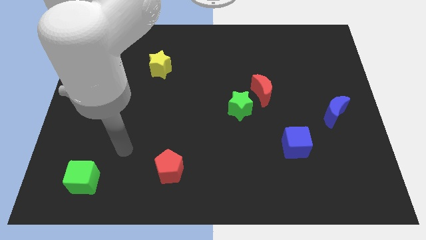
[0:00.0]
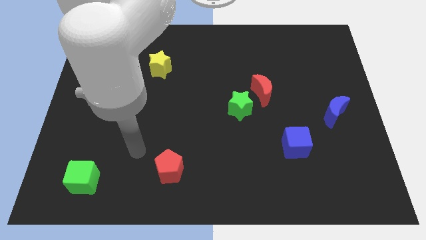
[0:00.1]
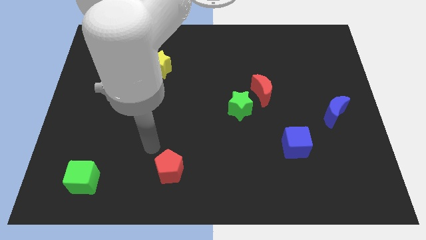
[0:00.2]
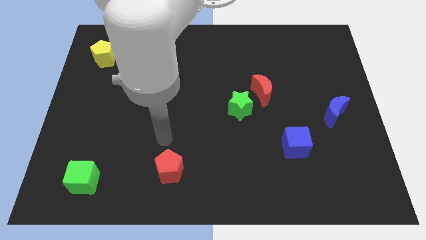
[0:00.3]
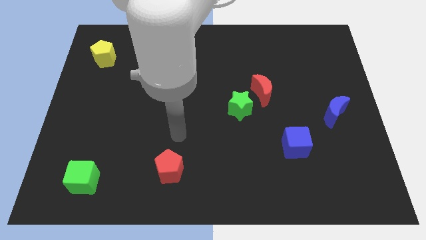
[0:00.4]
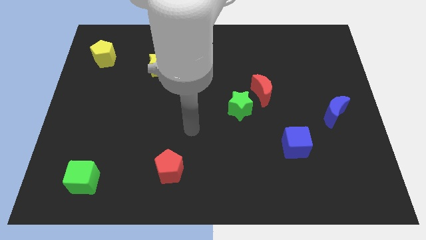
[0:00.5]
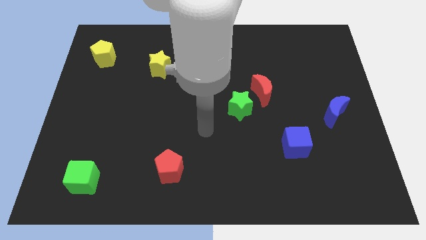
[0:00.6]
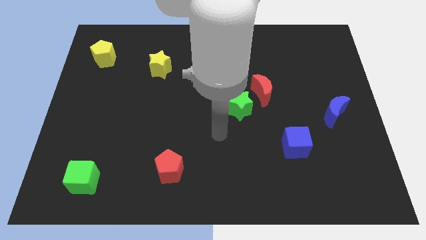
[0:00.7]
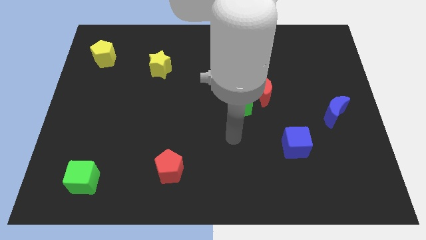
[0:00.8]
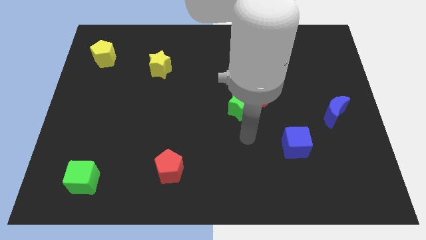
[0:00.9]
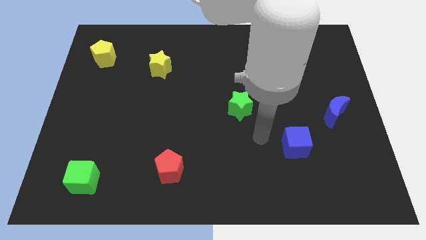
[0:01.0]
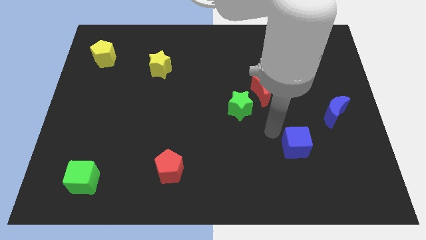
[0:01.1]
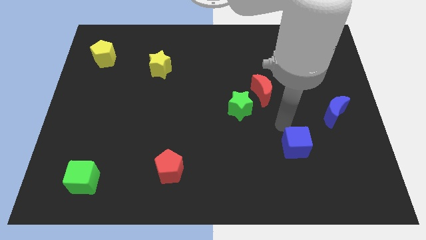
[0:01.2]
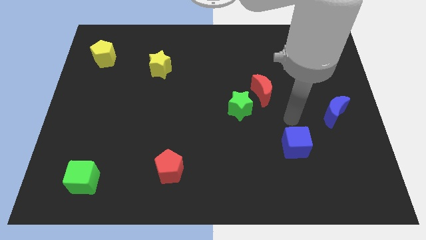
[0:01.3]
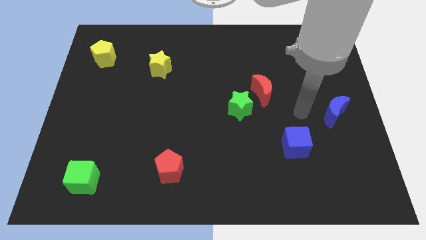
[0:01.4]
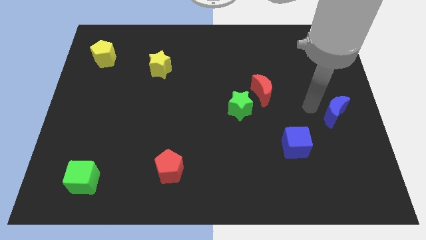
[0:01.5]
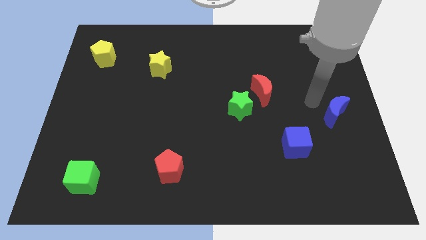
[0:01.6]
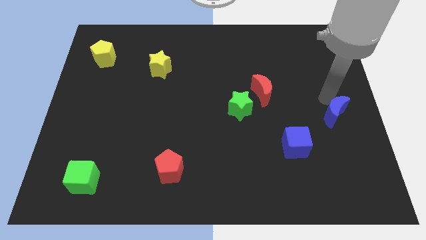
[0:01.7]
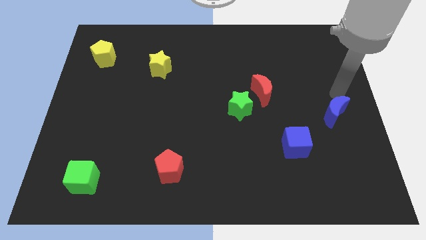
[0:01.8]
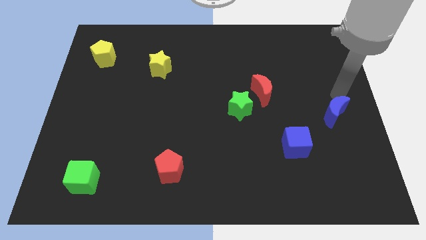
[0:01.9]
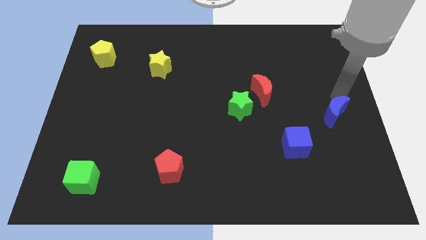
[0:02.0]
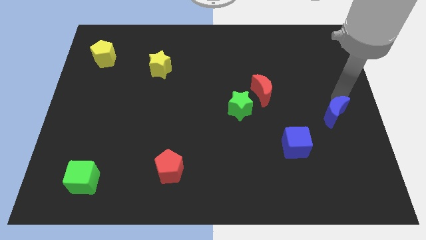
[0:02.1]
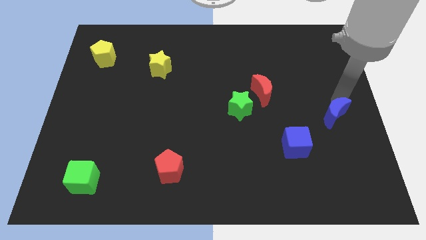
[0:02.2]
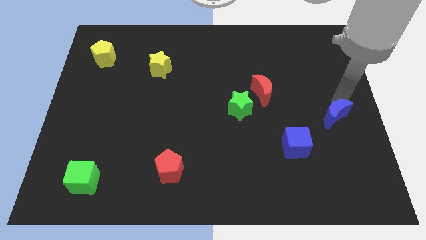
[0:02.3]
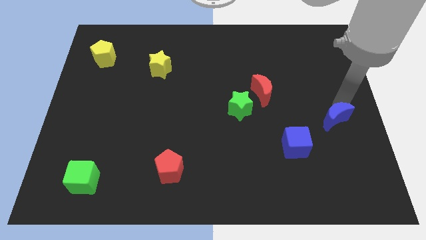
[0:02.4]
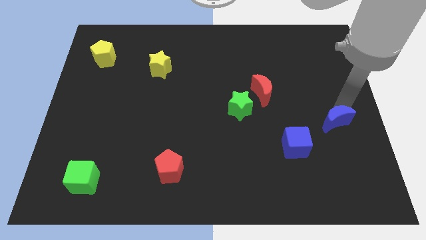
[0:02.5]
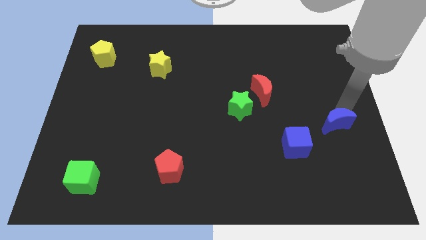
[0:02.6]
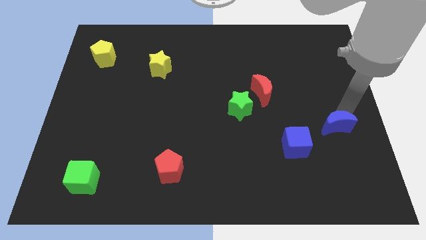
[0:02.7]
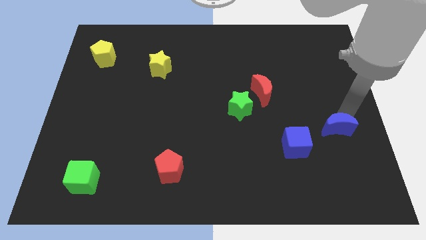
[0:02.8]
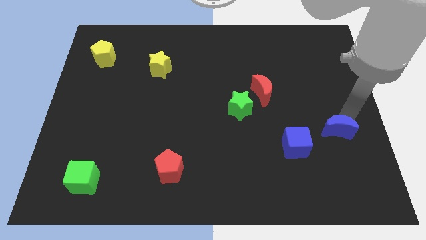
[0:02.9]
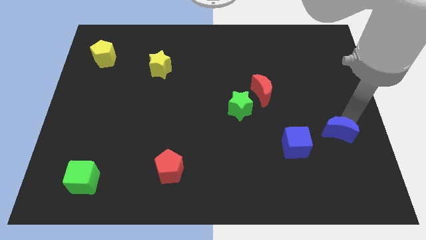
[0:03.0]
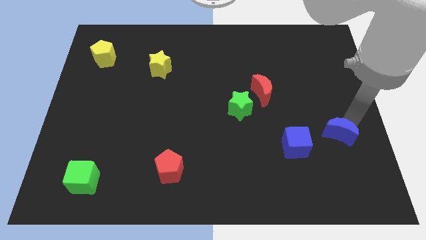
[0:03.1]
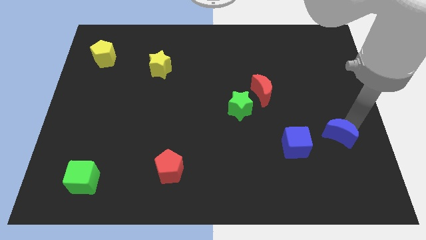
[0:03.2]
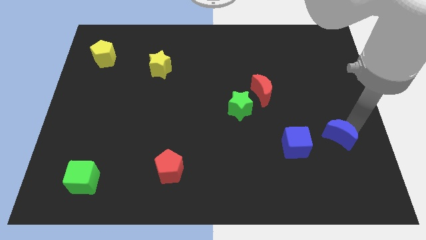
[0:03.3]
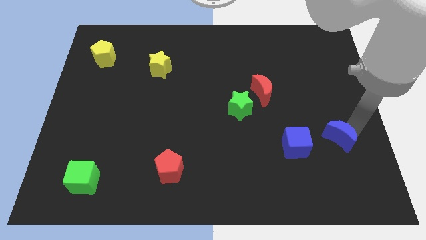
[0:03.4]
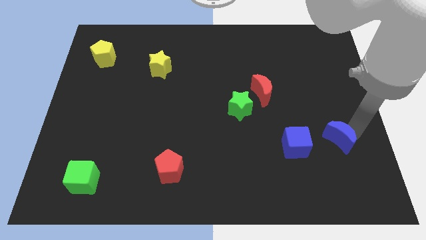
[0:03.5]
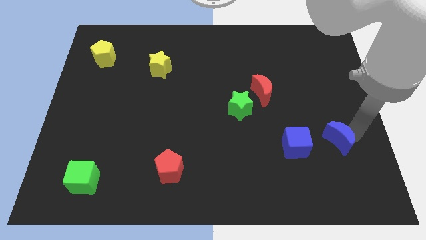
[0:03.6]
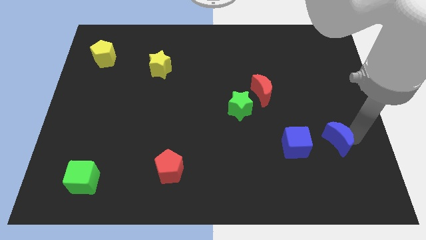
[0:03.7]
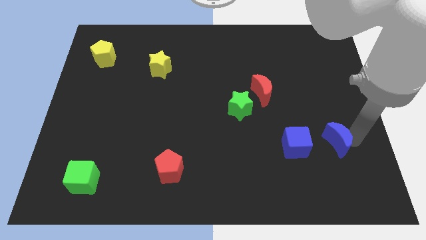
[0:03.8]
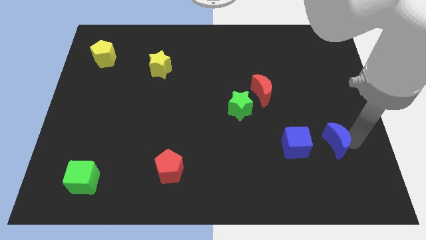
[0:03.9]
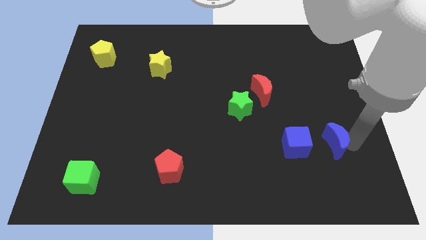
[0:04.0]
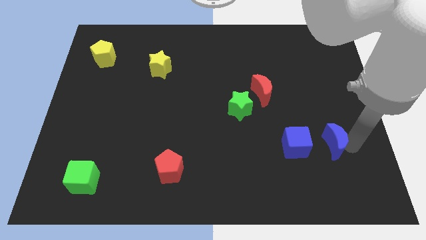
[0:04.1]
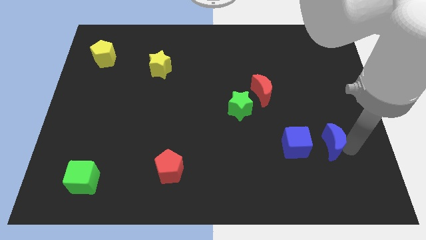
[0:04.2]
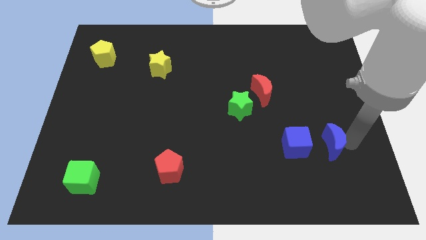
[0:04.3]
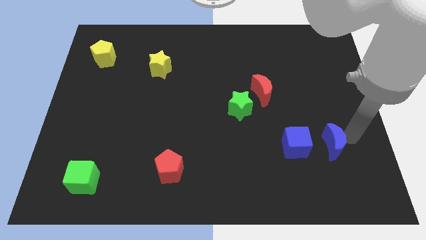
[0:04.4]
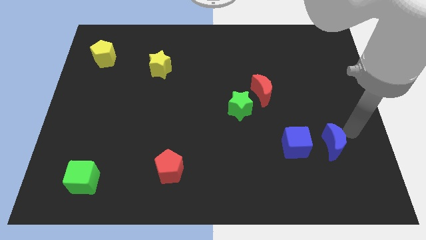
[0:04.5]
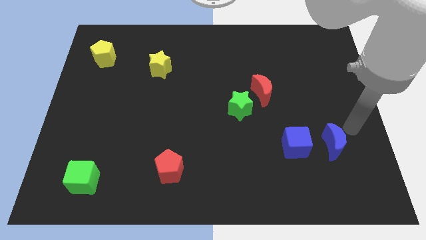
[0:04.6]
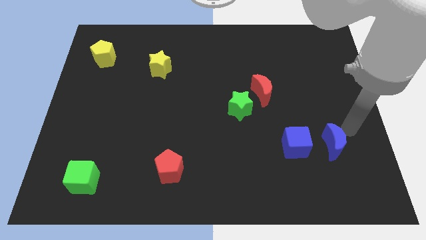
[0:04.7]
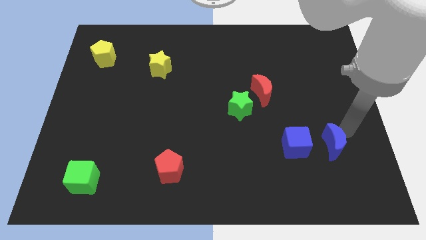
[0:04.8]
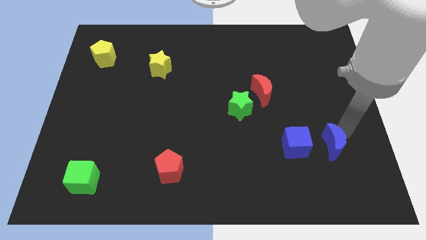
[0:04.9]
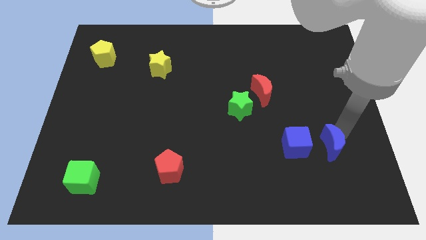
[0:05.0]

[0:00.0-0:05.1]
slide the blue moon slightly down and to the left

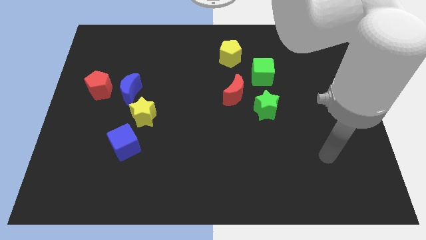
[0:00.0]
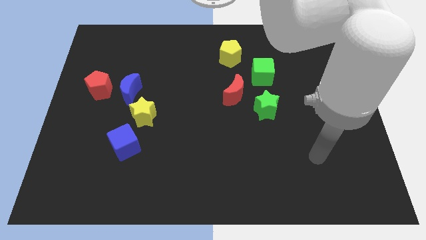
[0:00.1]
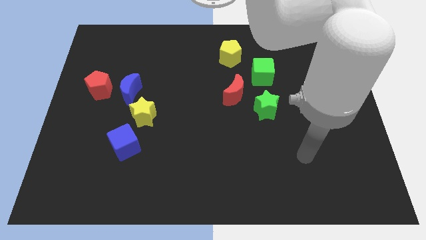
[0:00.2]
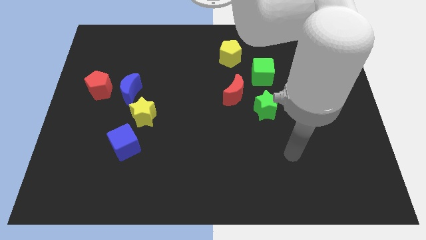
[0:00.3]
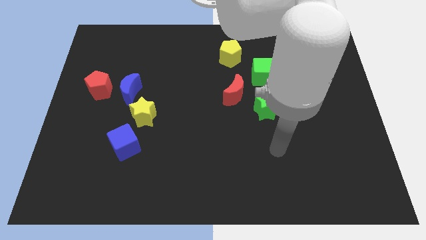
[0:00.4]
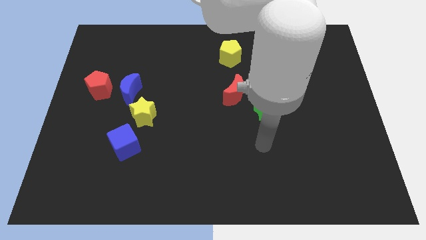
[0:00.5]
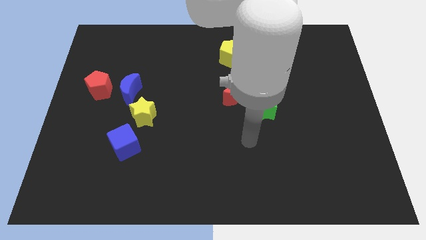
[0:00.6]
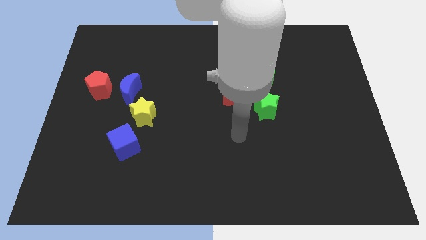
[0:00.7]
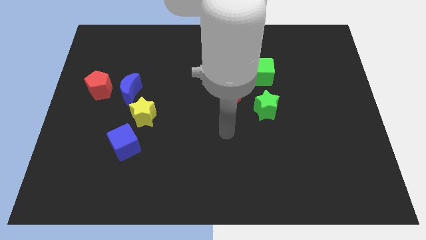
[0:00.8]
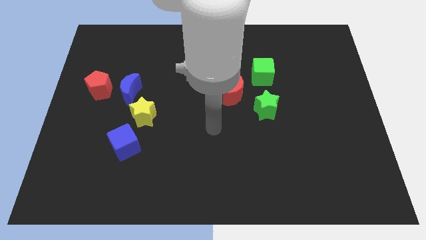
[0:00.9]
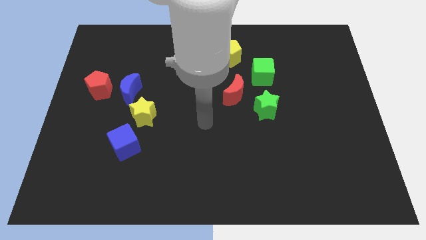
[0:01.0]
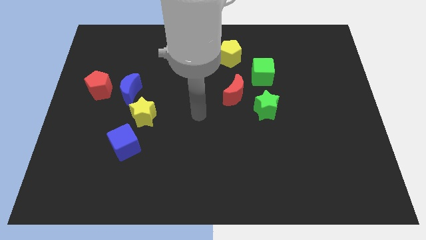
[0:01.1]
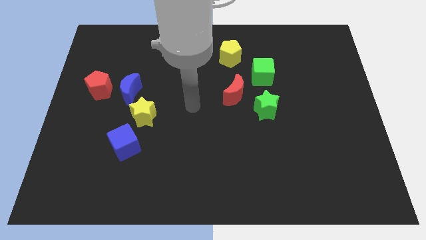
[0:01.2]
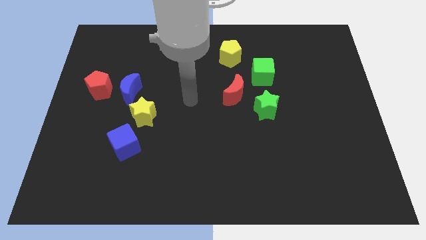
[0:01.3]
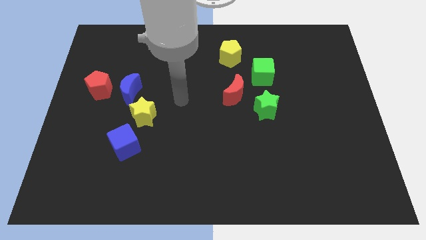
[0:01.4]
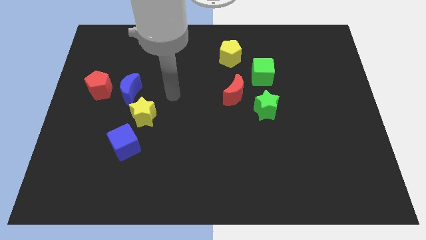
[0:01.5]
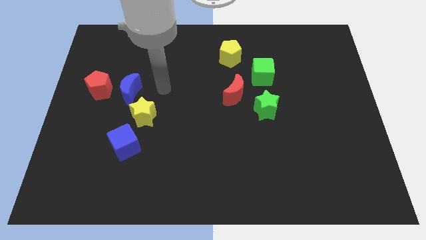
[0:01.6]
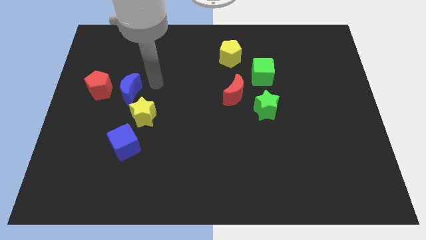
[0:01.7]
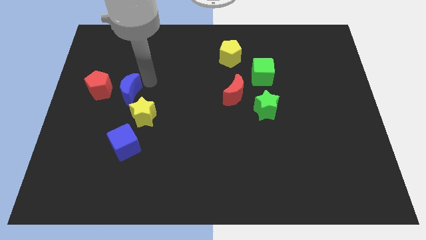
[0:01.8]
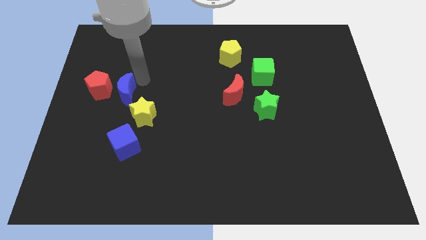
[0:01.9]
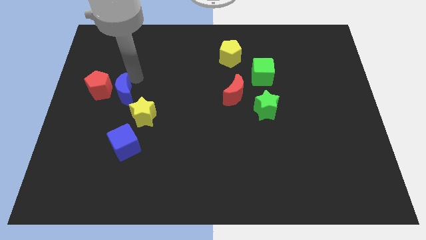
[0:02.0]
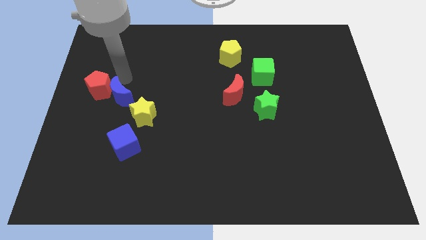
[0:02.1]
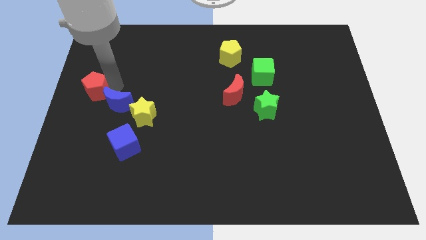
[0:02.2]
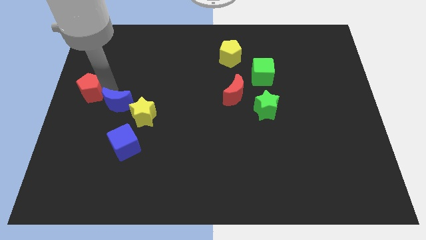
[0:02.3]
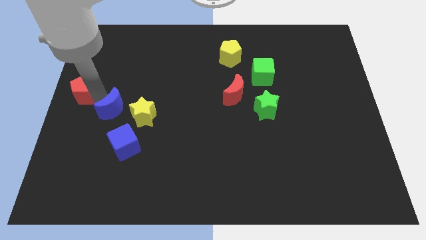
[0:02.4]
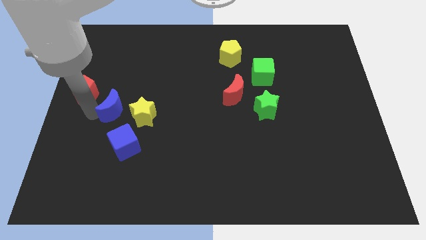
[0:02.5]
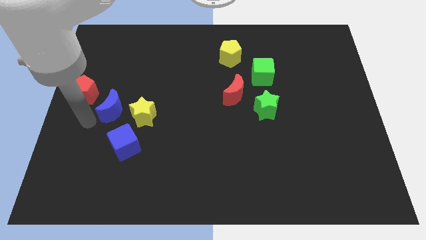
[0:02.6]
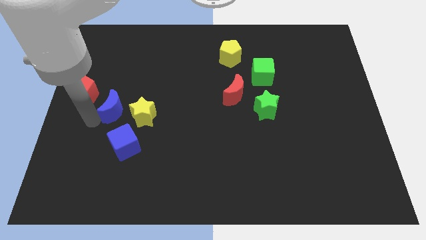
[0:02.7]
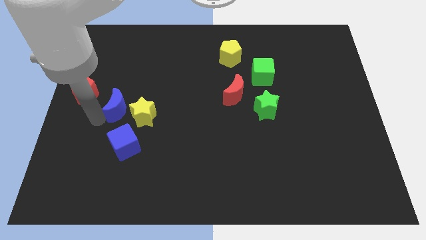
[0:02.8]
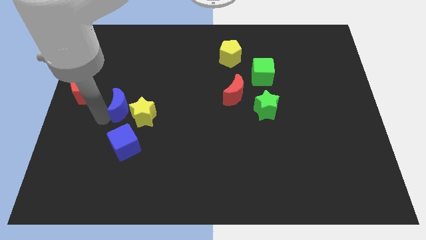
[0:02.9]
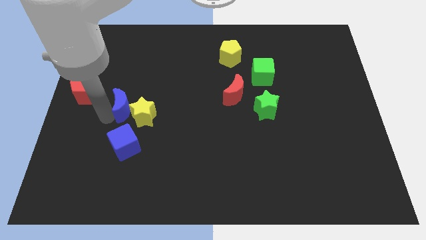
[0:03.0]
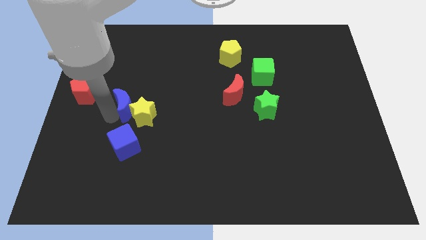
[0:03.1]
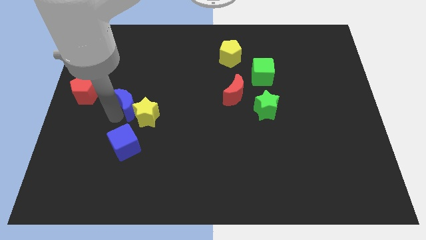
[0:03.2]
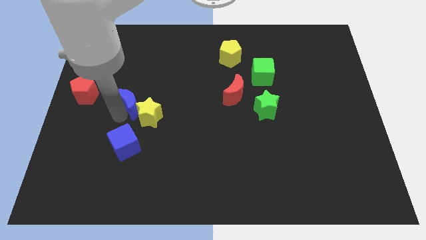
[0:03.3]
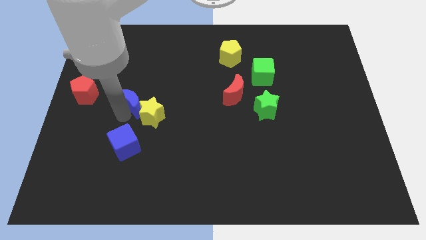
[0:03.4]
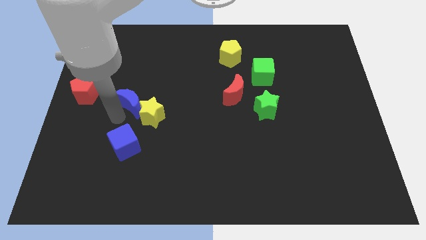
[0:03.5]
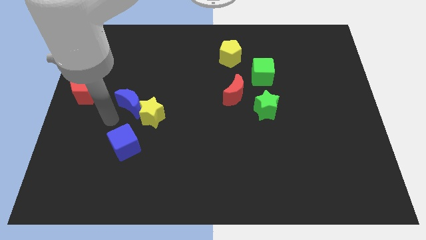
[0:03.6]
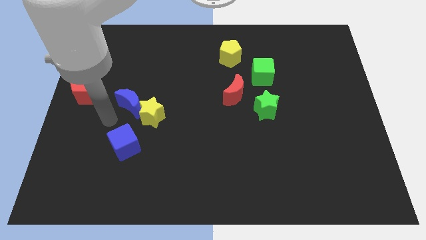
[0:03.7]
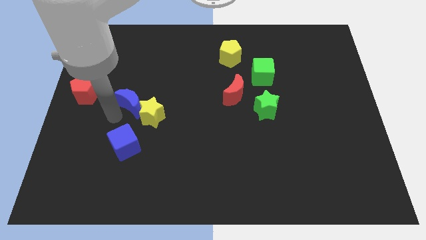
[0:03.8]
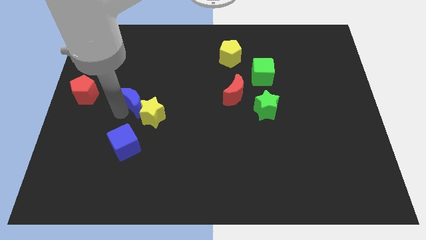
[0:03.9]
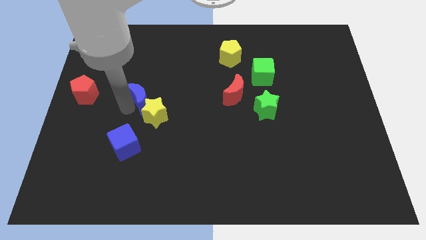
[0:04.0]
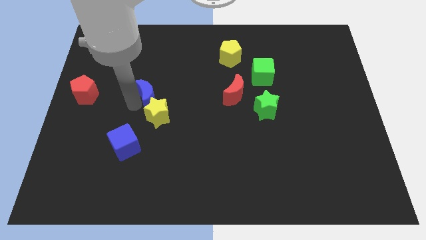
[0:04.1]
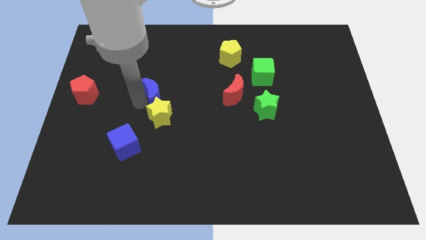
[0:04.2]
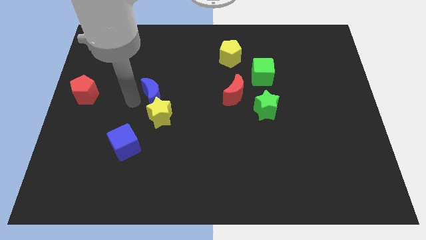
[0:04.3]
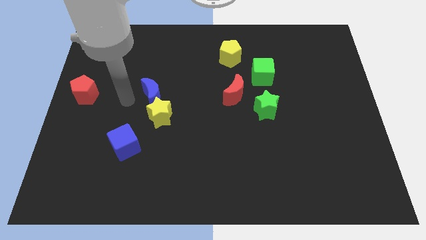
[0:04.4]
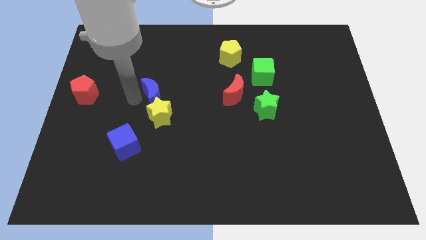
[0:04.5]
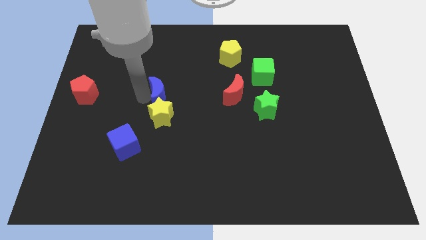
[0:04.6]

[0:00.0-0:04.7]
slightly slide the blue moon to the right
